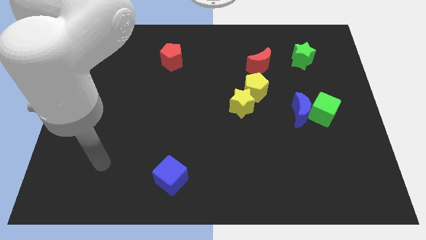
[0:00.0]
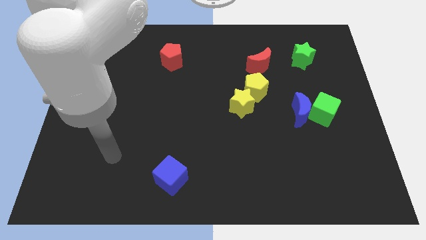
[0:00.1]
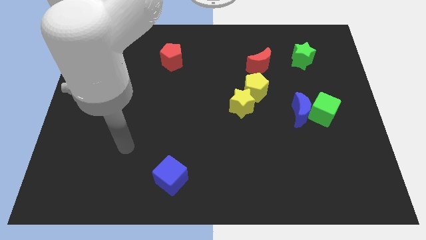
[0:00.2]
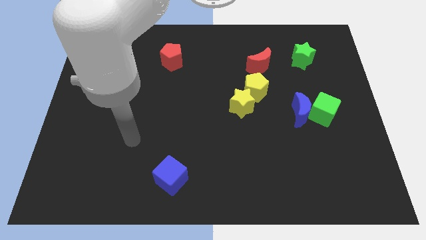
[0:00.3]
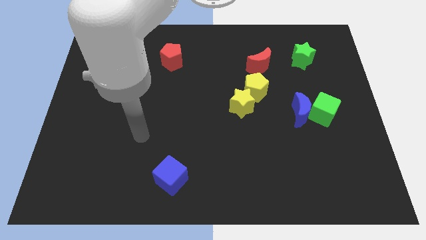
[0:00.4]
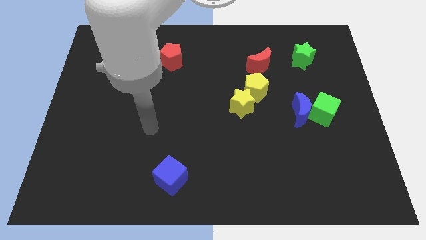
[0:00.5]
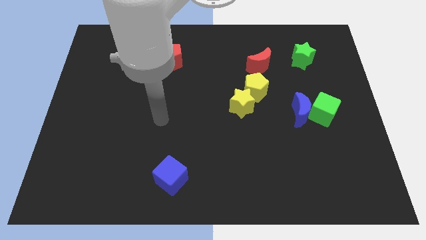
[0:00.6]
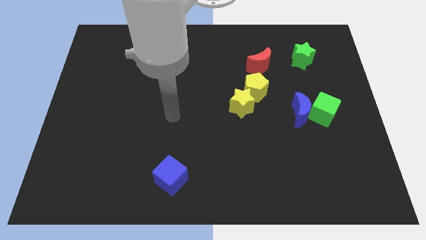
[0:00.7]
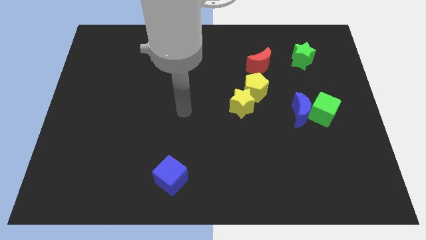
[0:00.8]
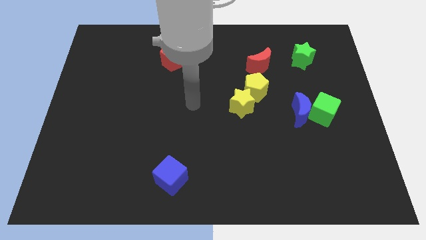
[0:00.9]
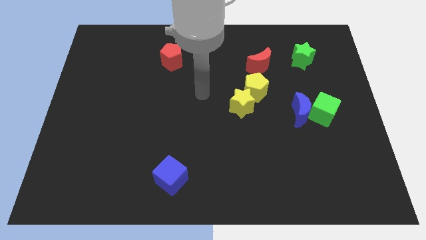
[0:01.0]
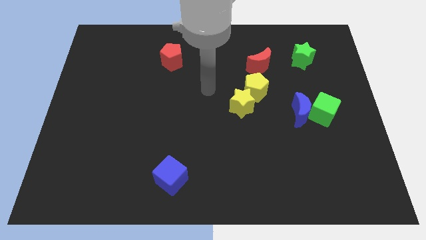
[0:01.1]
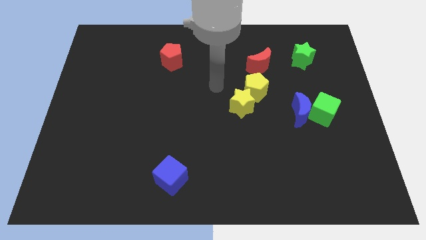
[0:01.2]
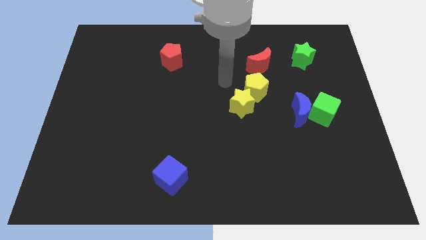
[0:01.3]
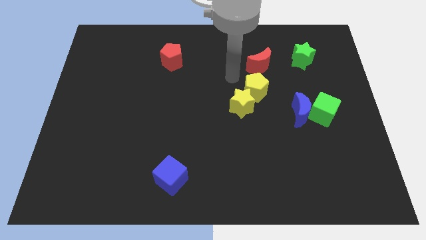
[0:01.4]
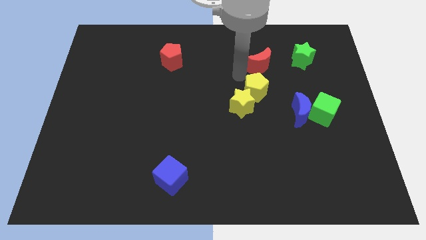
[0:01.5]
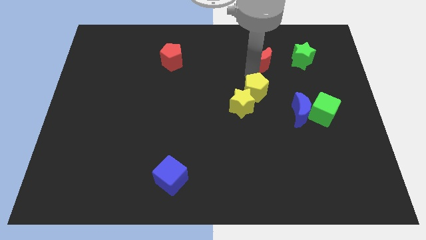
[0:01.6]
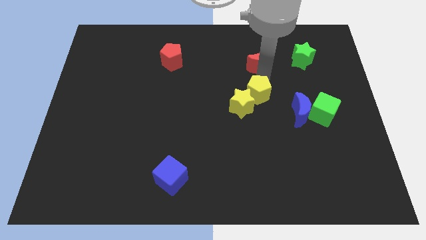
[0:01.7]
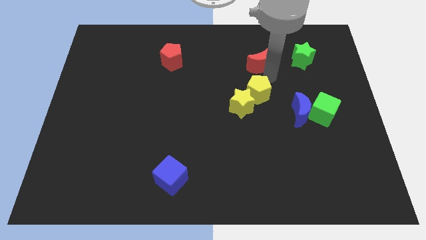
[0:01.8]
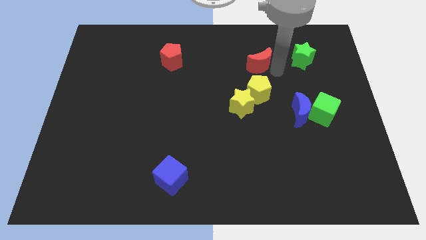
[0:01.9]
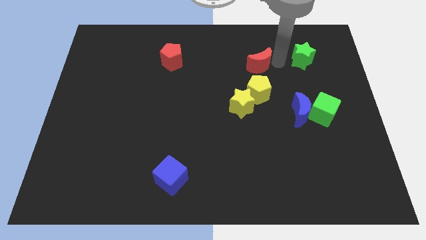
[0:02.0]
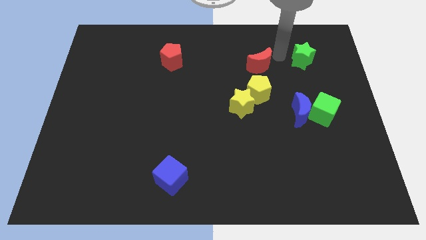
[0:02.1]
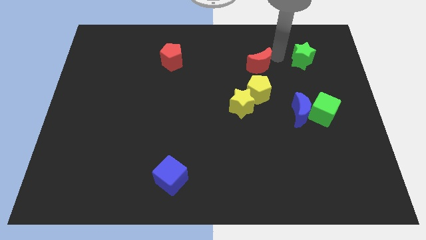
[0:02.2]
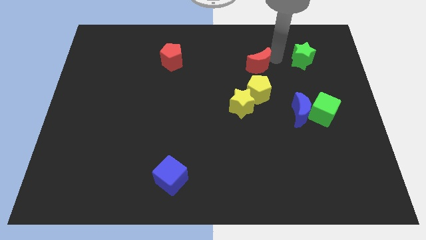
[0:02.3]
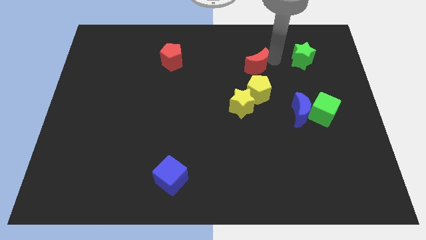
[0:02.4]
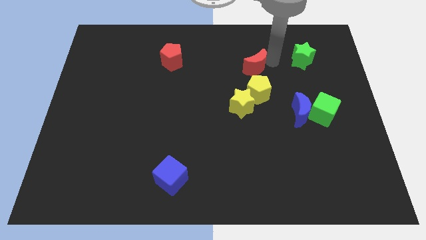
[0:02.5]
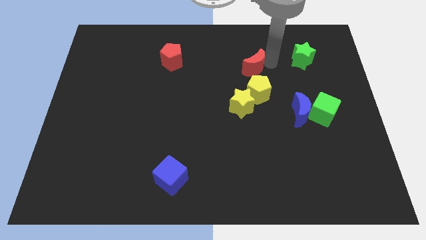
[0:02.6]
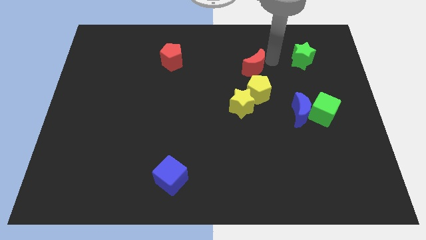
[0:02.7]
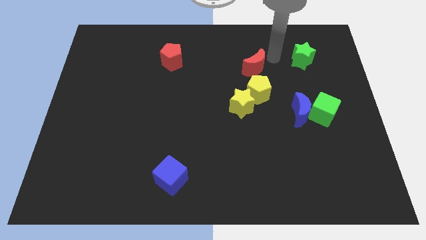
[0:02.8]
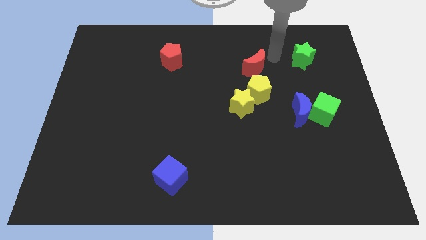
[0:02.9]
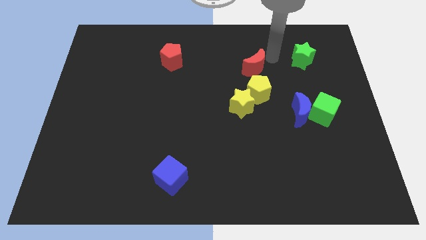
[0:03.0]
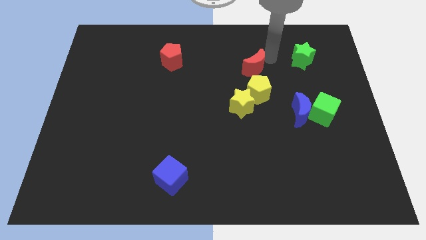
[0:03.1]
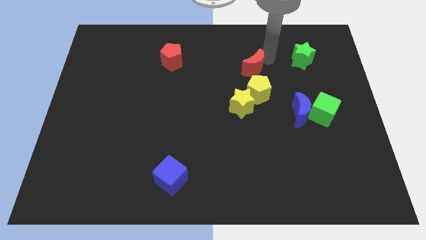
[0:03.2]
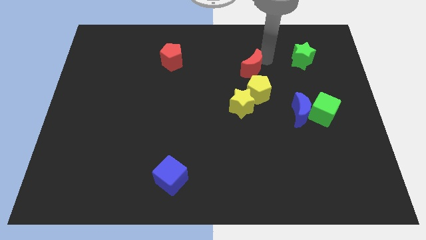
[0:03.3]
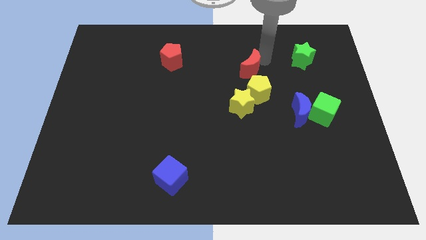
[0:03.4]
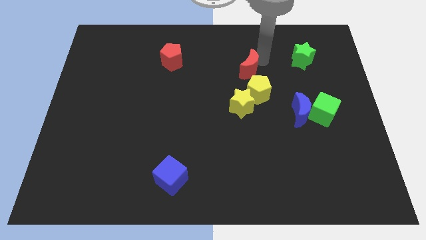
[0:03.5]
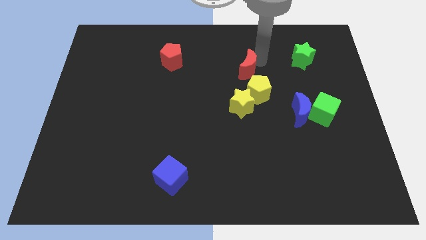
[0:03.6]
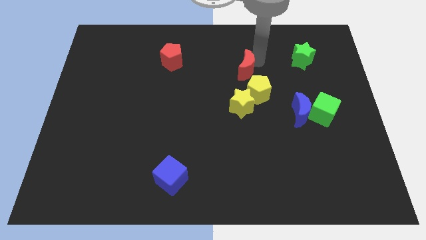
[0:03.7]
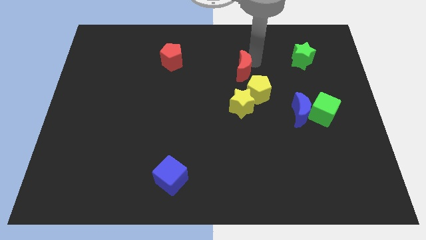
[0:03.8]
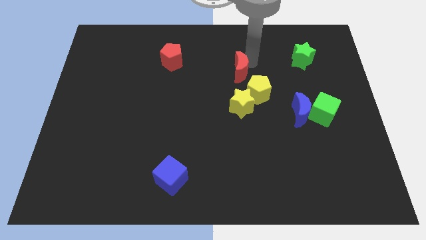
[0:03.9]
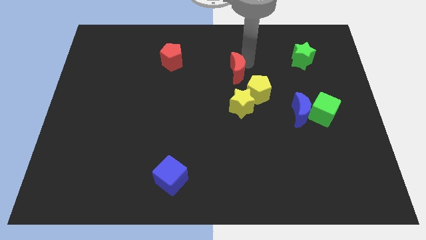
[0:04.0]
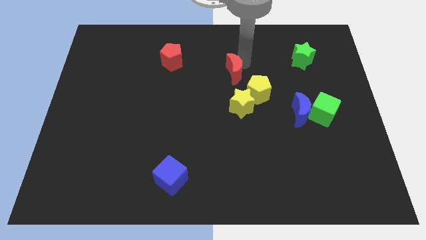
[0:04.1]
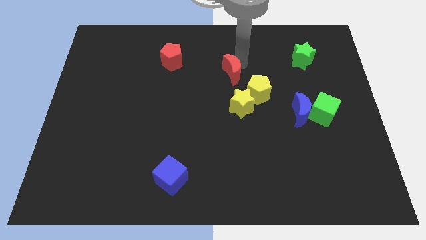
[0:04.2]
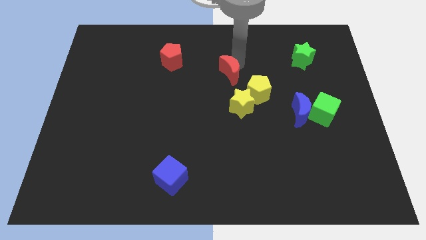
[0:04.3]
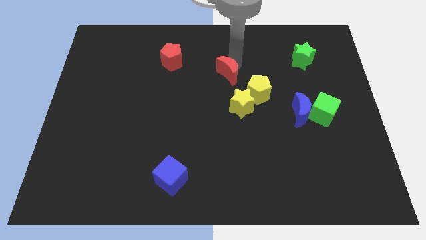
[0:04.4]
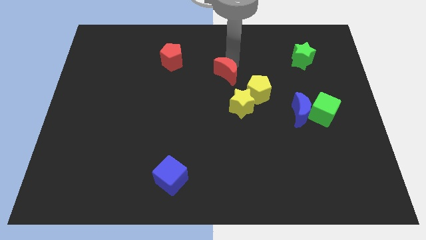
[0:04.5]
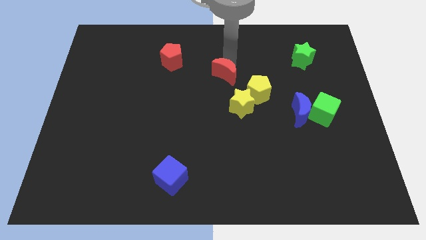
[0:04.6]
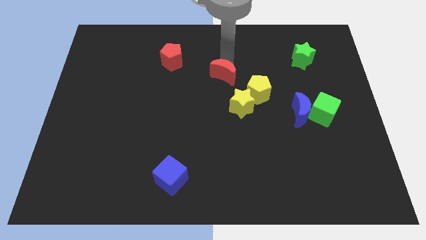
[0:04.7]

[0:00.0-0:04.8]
push the red moon to the top left of the yellow star

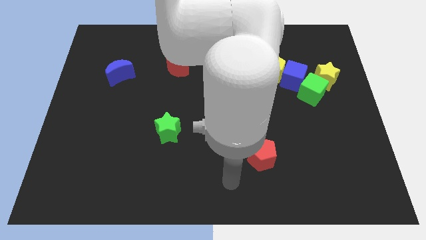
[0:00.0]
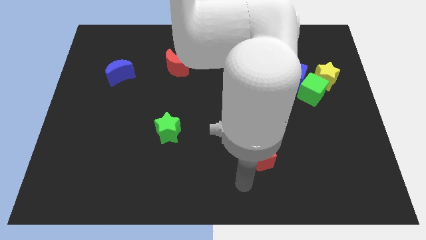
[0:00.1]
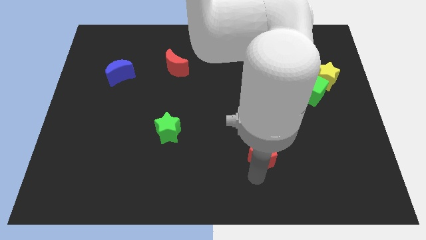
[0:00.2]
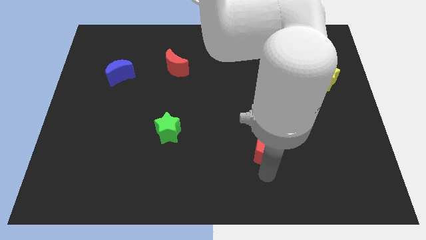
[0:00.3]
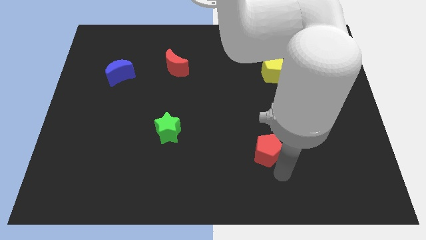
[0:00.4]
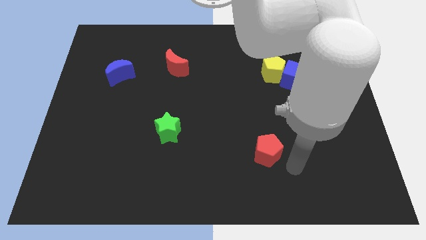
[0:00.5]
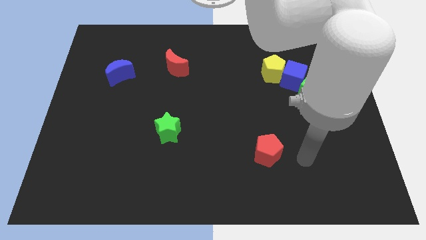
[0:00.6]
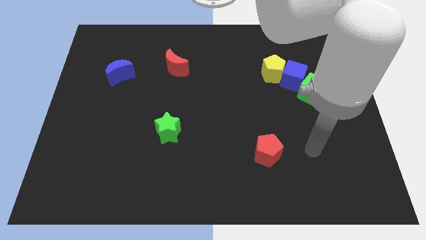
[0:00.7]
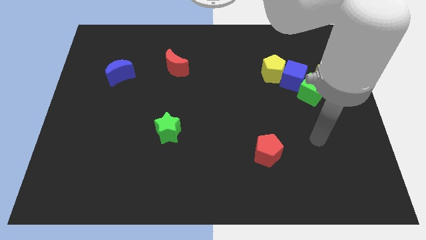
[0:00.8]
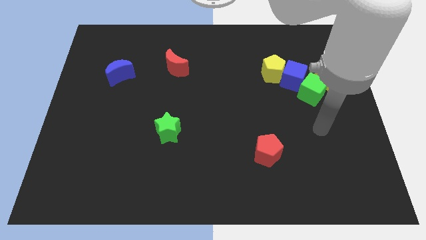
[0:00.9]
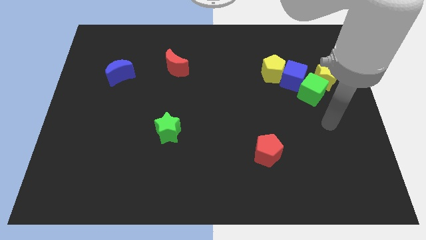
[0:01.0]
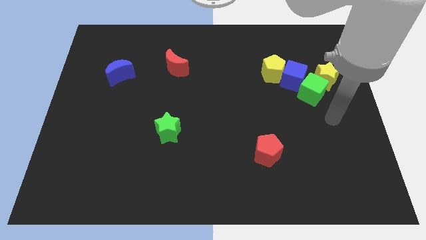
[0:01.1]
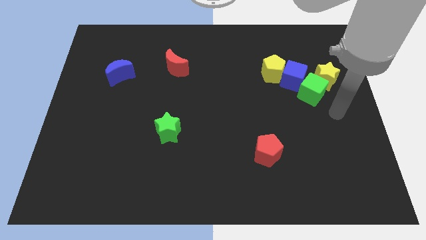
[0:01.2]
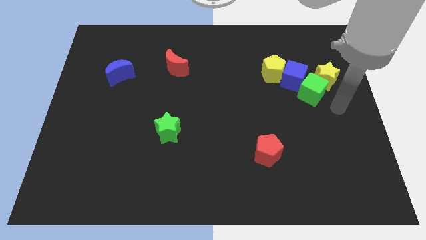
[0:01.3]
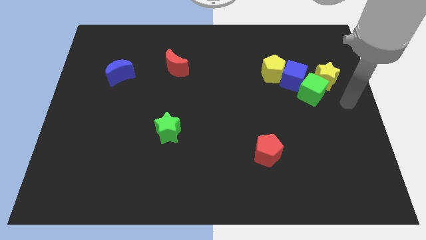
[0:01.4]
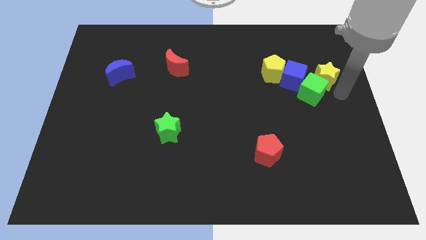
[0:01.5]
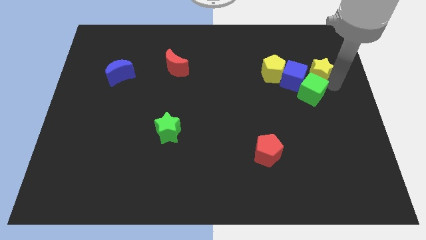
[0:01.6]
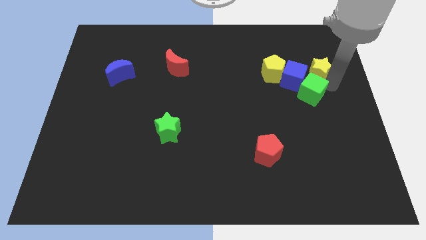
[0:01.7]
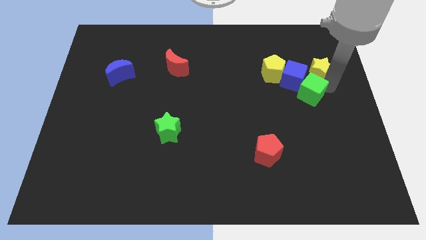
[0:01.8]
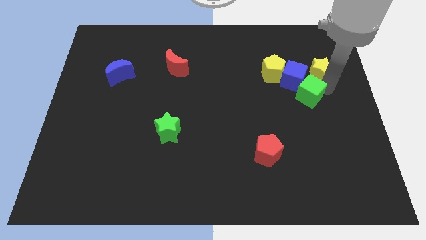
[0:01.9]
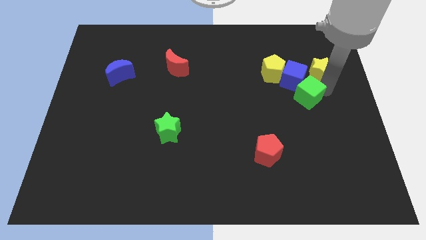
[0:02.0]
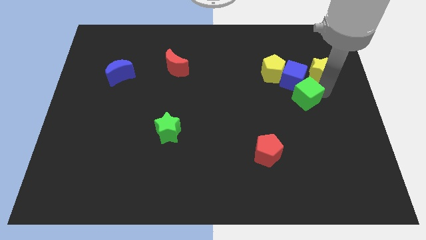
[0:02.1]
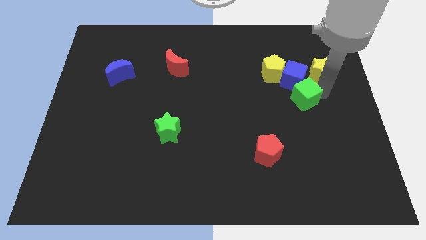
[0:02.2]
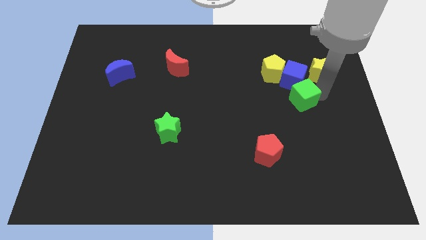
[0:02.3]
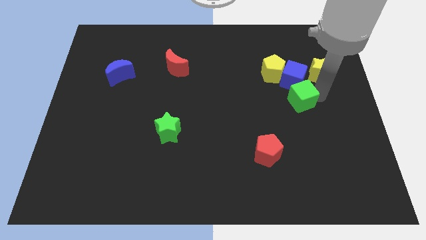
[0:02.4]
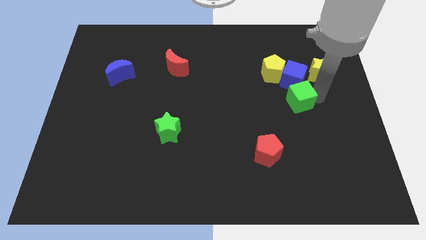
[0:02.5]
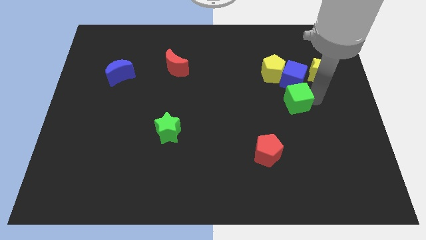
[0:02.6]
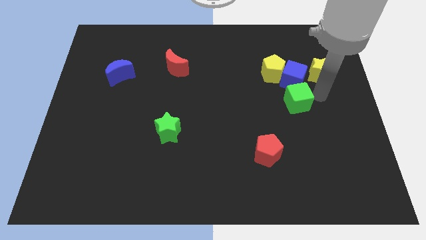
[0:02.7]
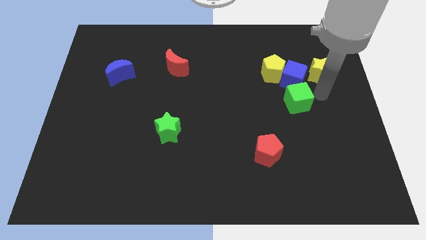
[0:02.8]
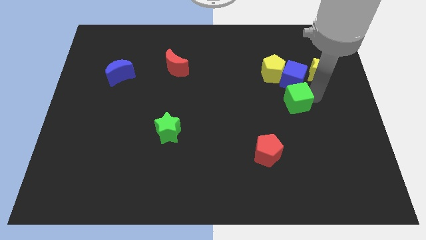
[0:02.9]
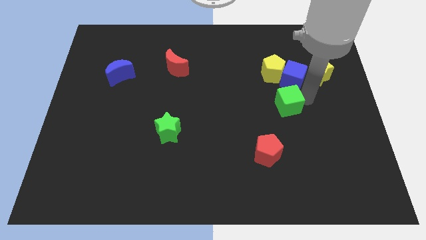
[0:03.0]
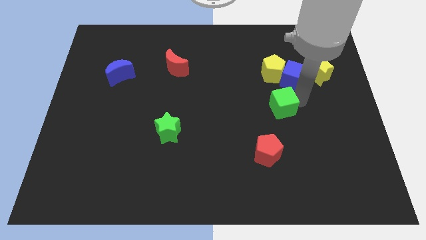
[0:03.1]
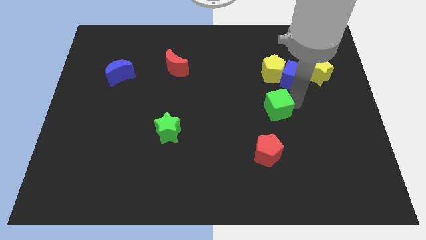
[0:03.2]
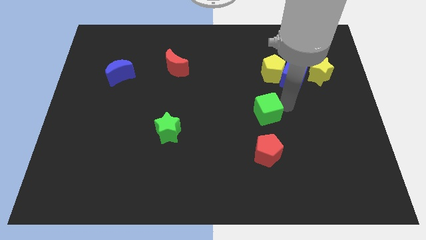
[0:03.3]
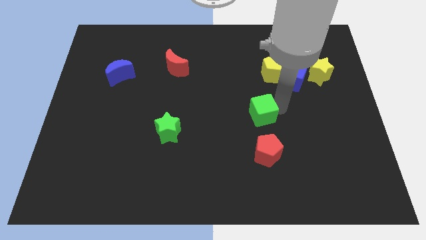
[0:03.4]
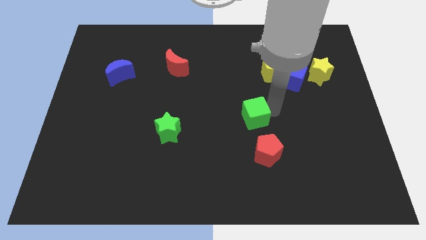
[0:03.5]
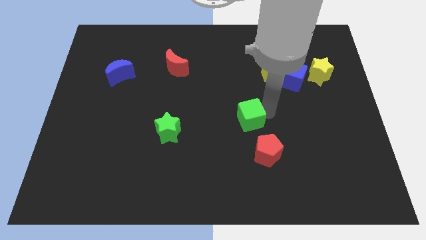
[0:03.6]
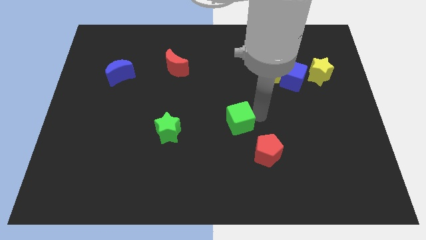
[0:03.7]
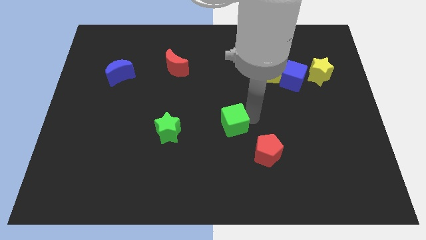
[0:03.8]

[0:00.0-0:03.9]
move the green cube to the right side of the green star
